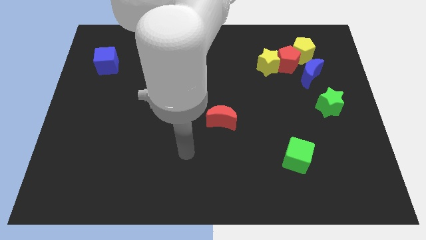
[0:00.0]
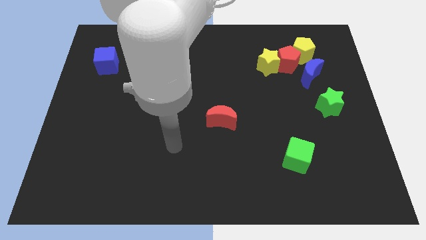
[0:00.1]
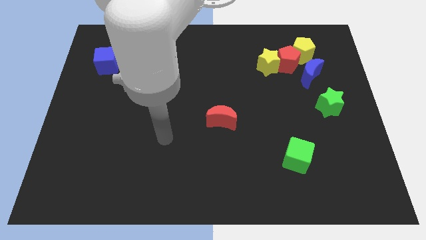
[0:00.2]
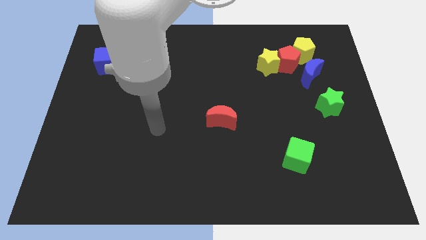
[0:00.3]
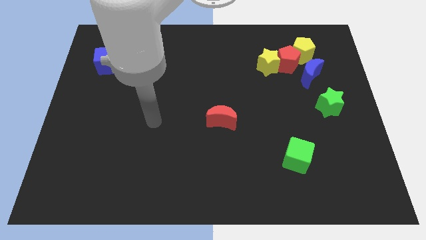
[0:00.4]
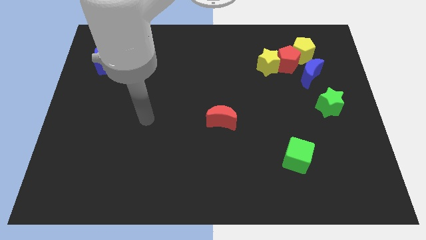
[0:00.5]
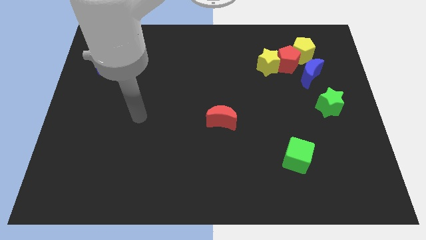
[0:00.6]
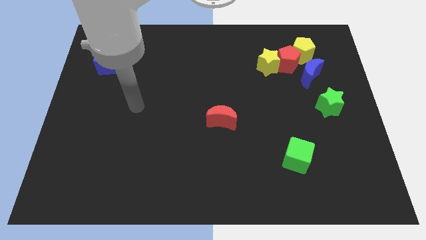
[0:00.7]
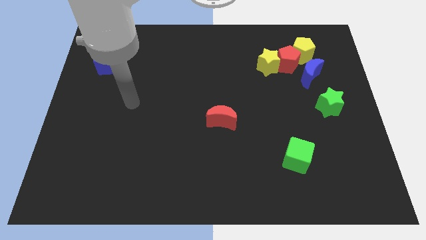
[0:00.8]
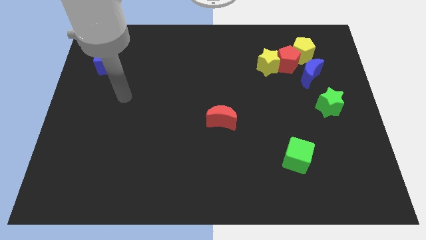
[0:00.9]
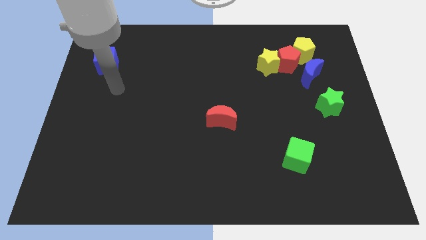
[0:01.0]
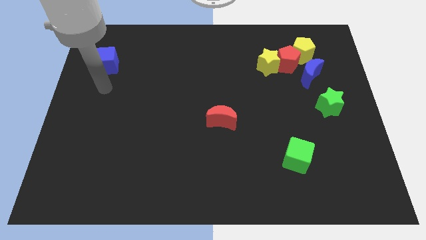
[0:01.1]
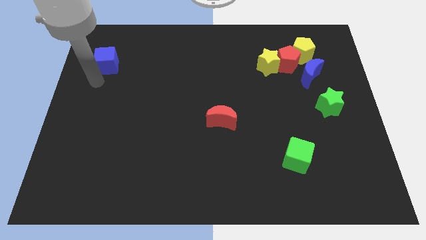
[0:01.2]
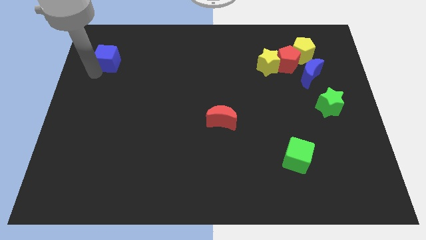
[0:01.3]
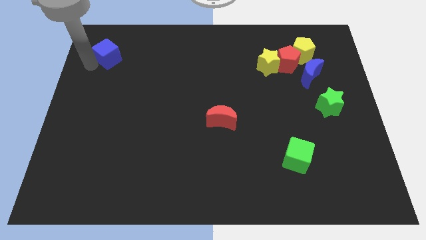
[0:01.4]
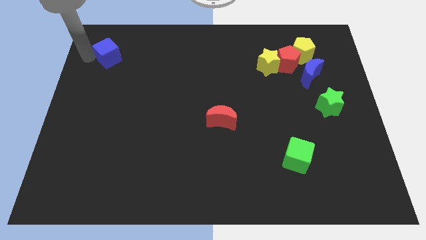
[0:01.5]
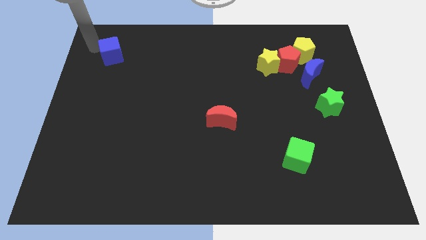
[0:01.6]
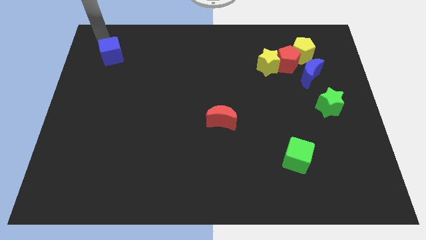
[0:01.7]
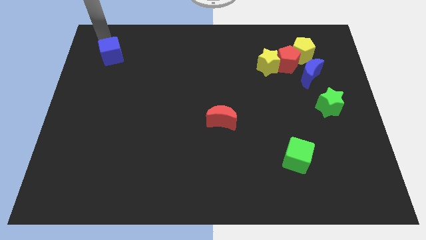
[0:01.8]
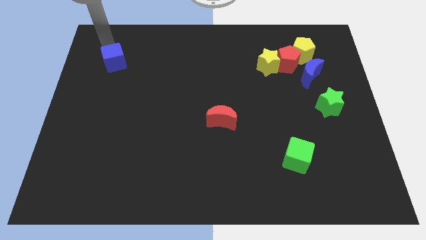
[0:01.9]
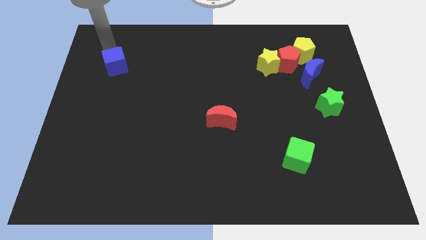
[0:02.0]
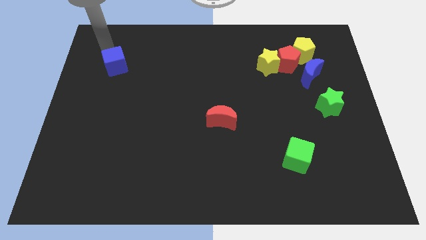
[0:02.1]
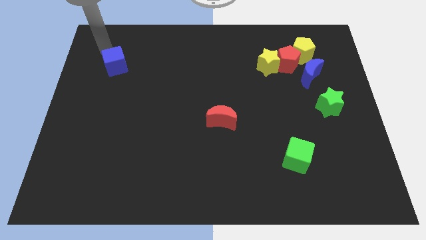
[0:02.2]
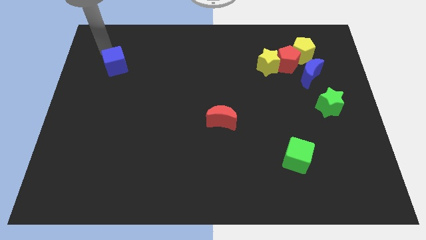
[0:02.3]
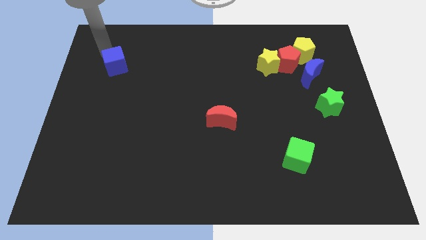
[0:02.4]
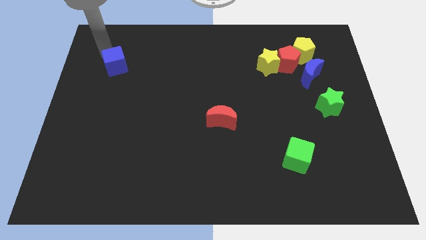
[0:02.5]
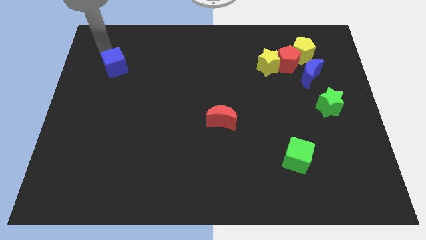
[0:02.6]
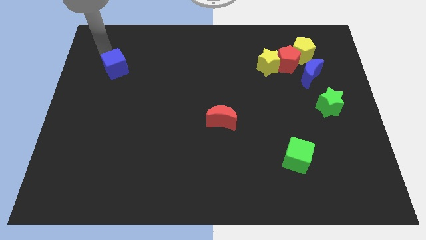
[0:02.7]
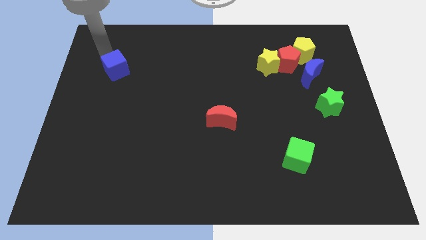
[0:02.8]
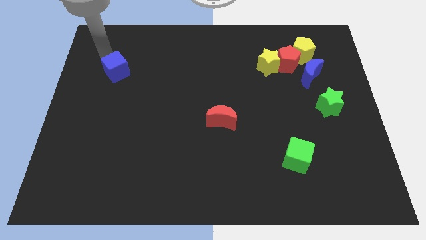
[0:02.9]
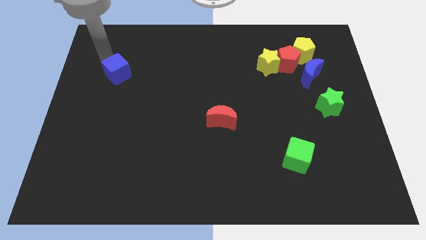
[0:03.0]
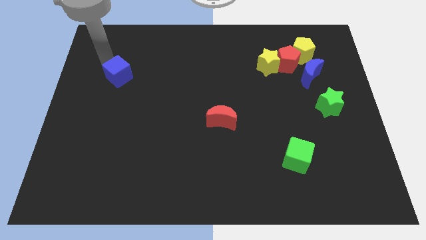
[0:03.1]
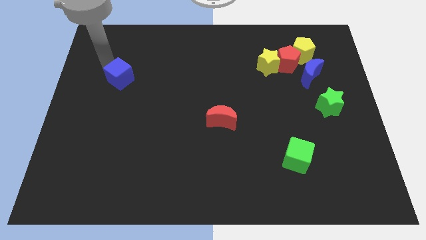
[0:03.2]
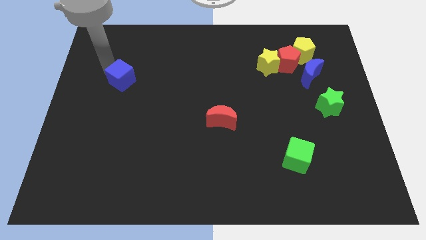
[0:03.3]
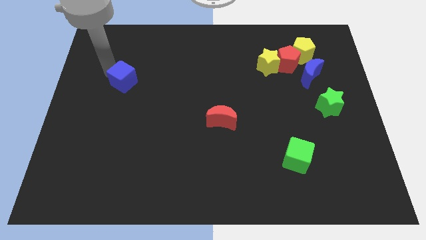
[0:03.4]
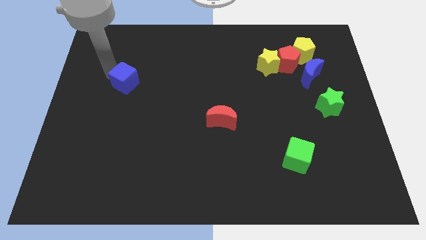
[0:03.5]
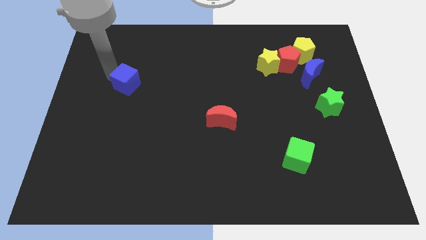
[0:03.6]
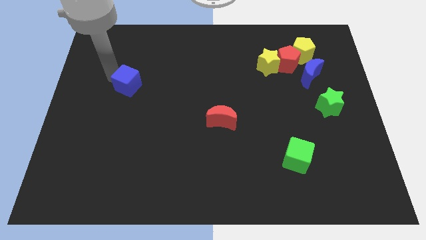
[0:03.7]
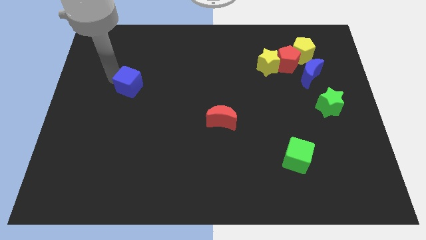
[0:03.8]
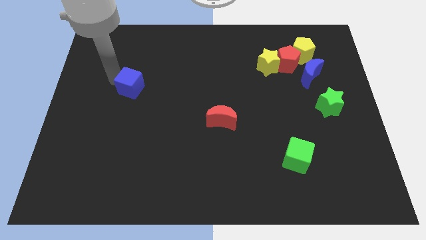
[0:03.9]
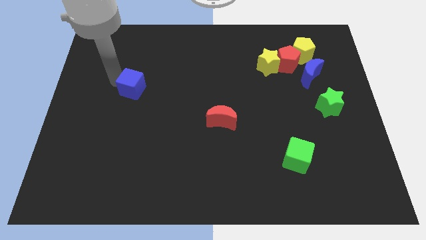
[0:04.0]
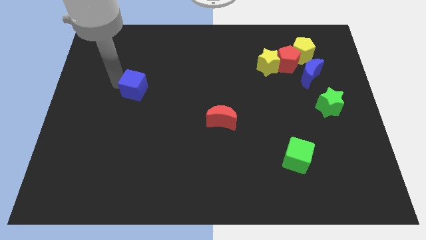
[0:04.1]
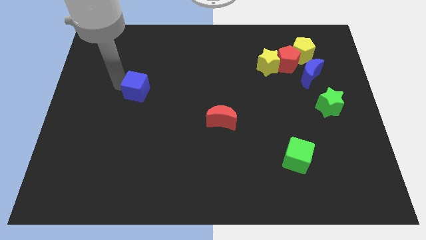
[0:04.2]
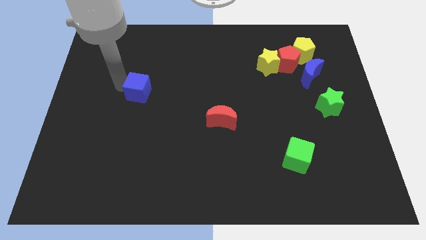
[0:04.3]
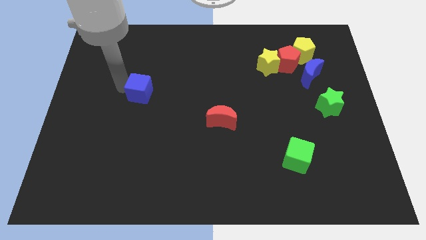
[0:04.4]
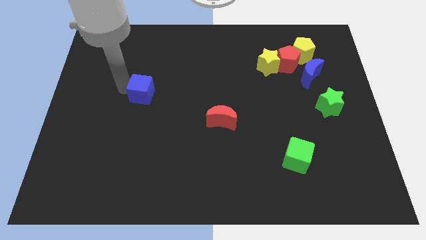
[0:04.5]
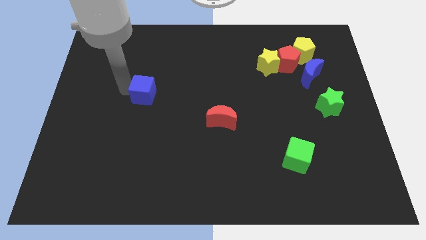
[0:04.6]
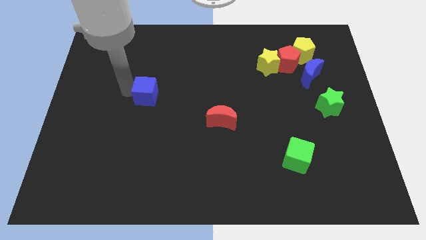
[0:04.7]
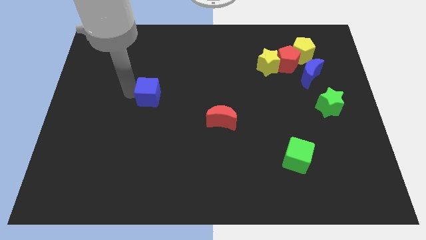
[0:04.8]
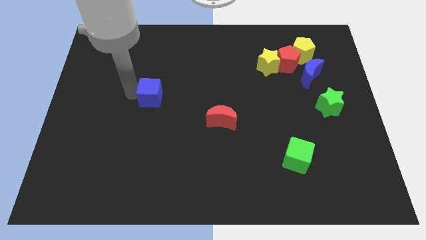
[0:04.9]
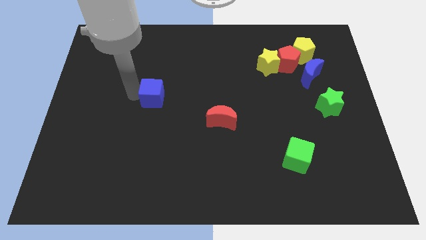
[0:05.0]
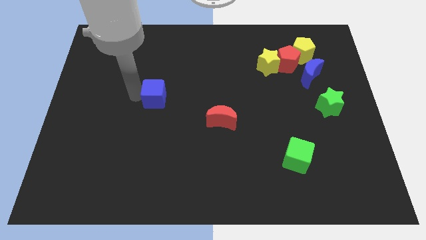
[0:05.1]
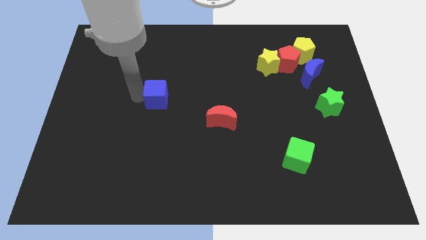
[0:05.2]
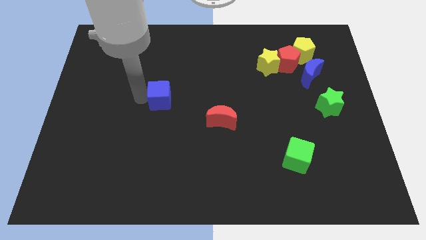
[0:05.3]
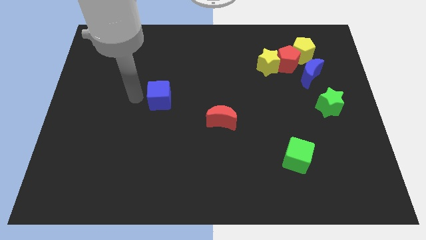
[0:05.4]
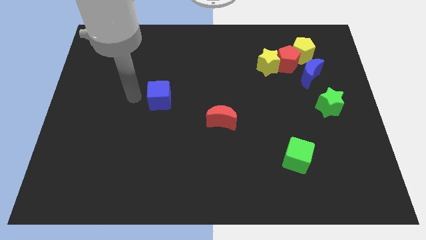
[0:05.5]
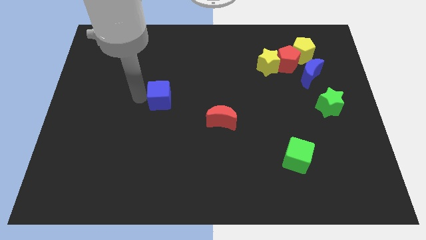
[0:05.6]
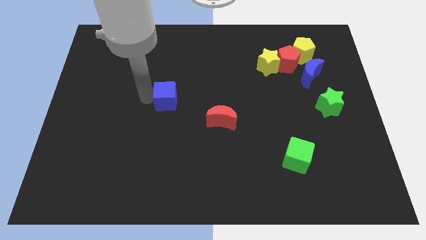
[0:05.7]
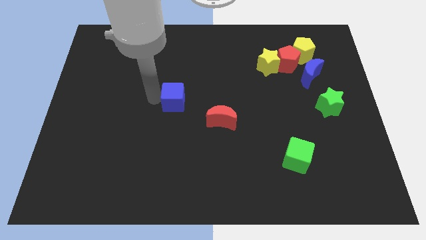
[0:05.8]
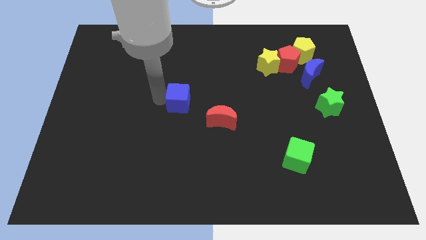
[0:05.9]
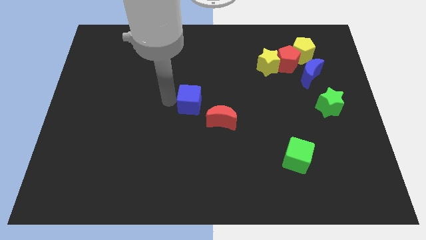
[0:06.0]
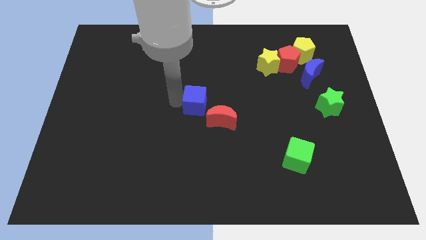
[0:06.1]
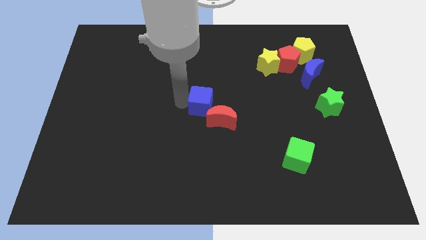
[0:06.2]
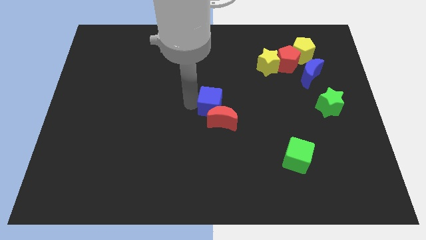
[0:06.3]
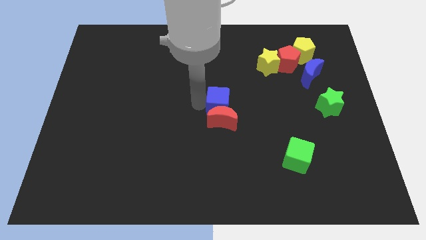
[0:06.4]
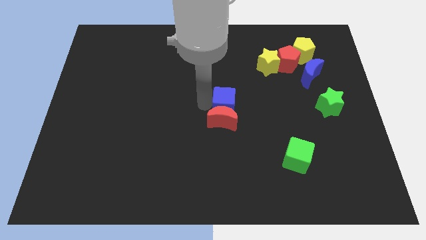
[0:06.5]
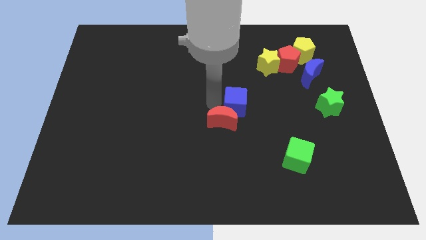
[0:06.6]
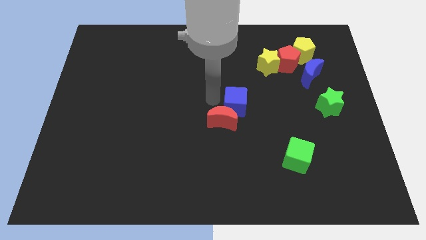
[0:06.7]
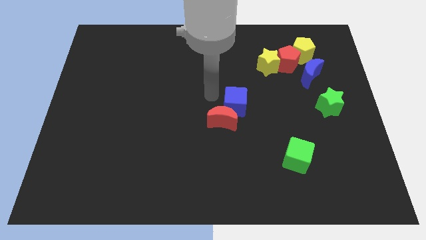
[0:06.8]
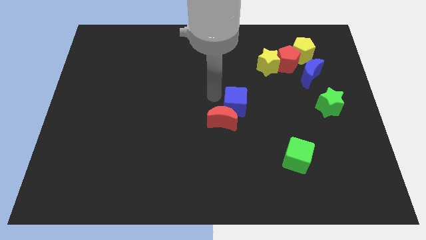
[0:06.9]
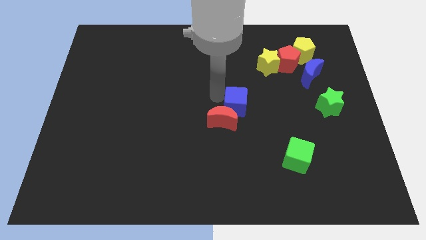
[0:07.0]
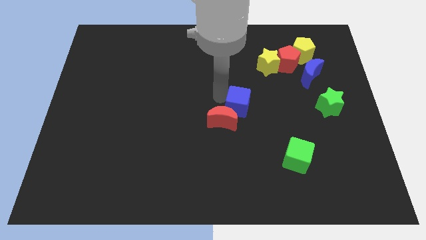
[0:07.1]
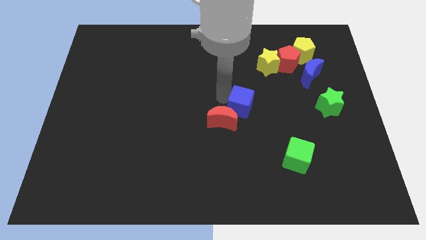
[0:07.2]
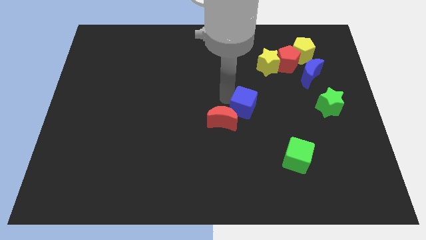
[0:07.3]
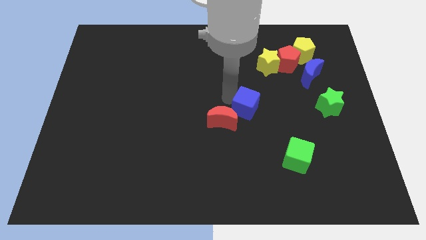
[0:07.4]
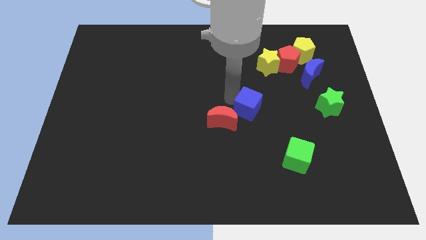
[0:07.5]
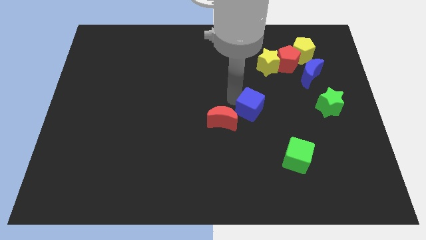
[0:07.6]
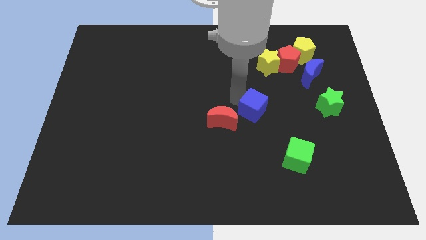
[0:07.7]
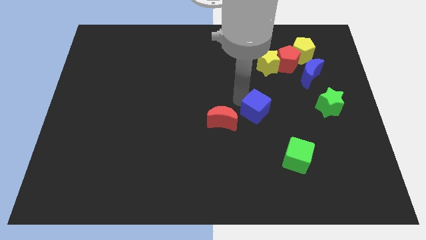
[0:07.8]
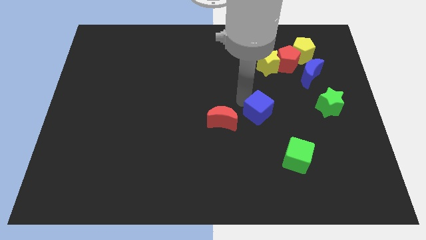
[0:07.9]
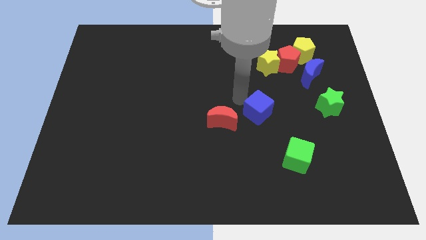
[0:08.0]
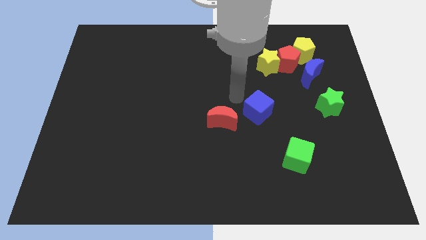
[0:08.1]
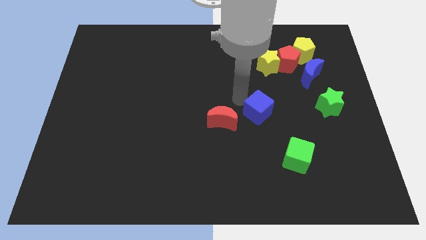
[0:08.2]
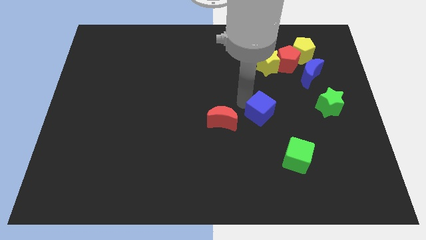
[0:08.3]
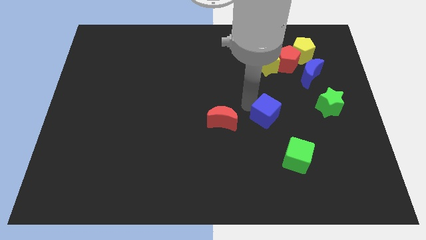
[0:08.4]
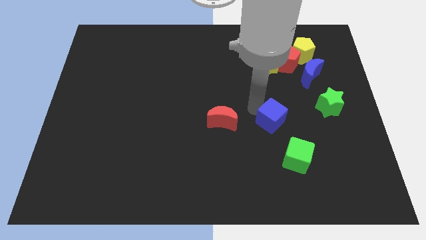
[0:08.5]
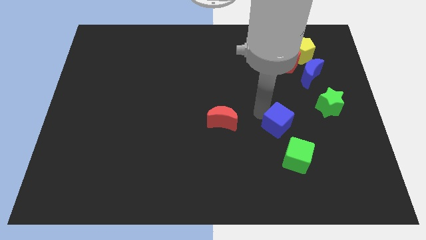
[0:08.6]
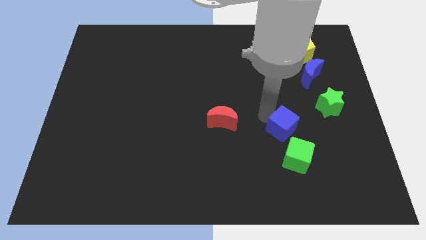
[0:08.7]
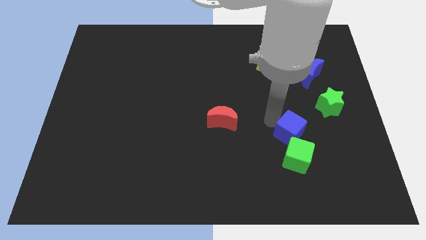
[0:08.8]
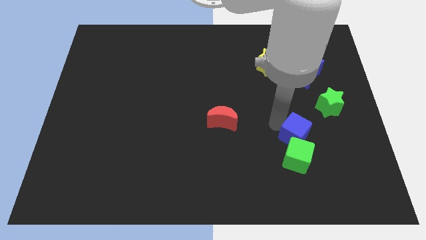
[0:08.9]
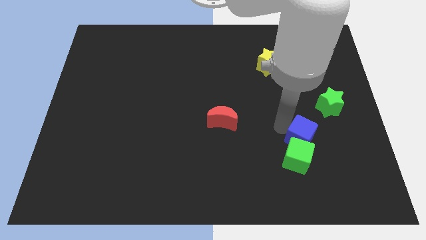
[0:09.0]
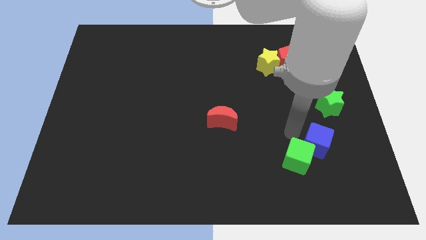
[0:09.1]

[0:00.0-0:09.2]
put the blue cube to the right side of the green cube
